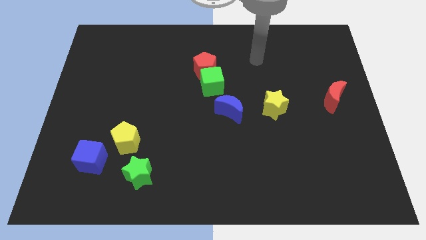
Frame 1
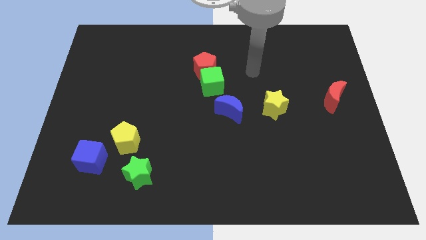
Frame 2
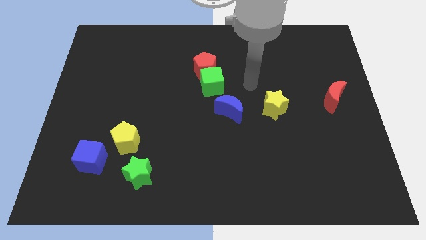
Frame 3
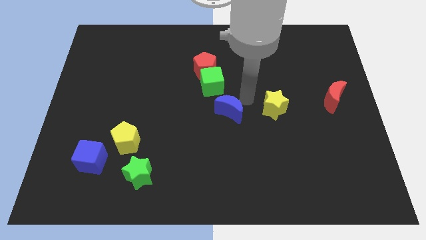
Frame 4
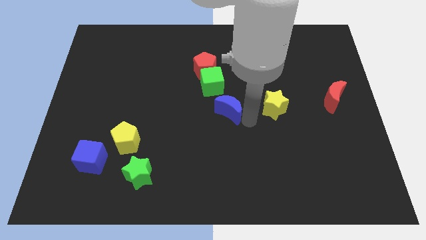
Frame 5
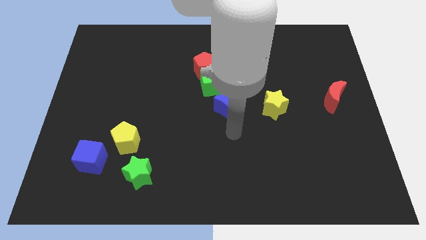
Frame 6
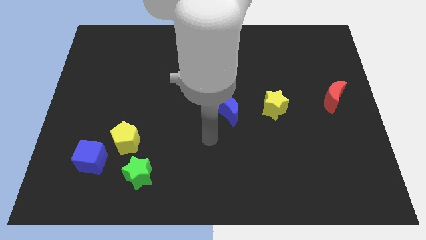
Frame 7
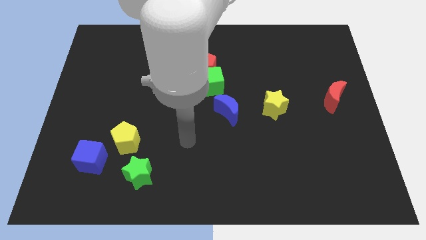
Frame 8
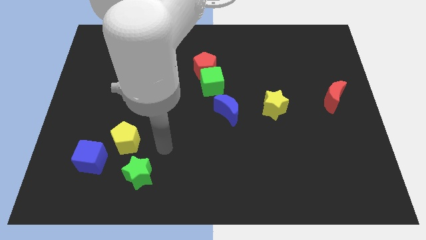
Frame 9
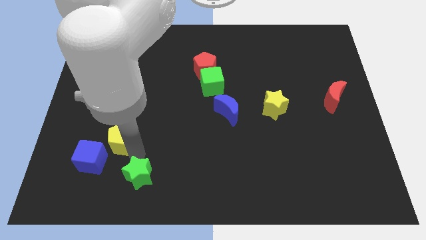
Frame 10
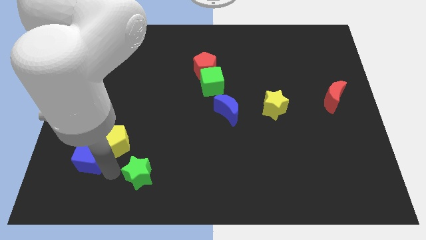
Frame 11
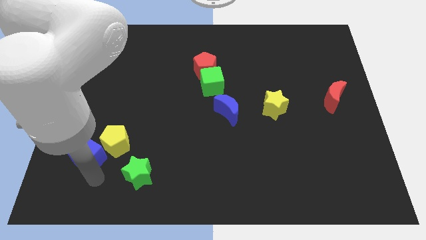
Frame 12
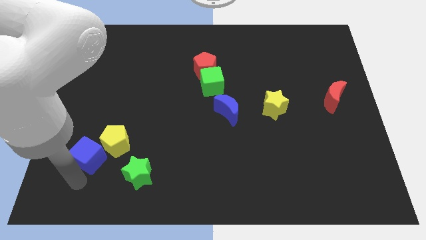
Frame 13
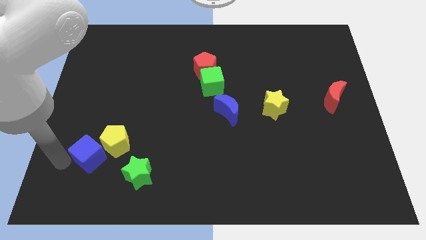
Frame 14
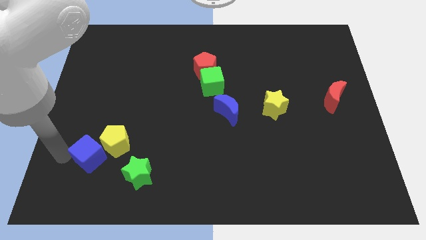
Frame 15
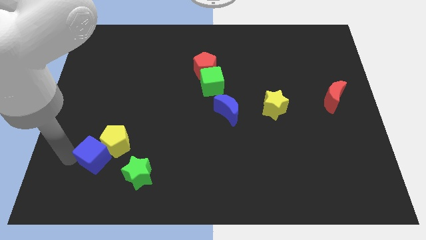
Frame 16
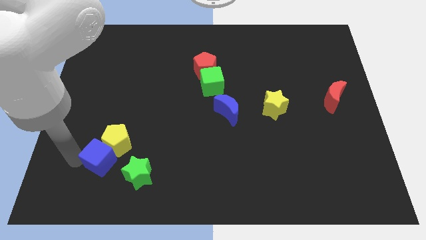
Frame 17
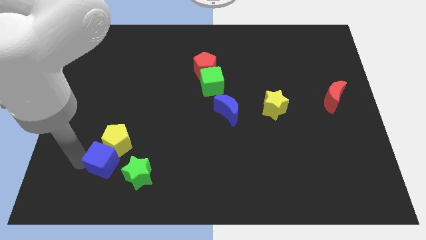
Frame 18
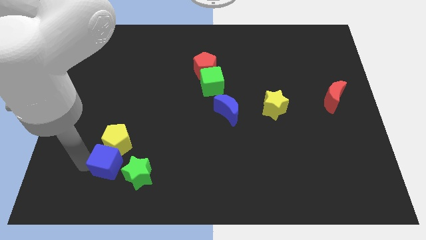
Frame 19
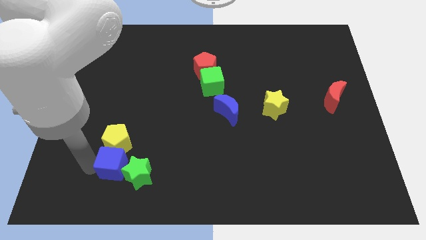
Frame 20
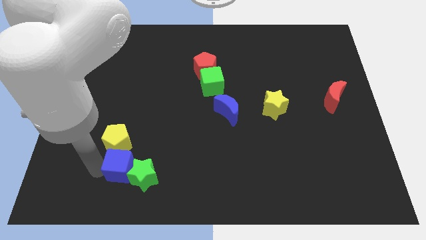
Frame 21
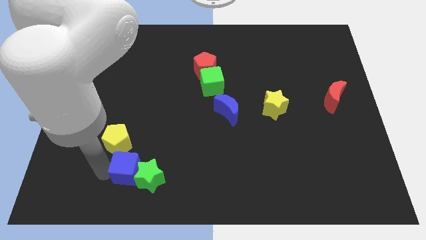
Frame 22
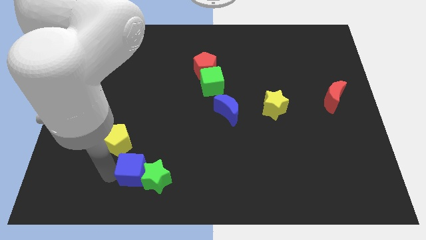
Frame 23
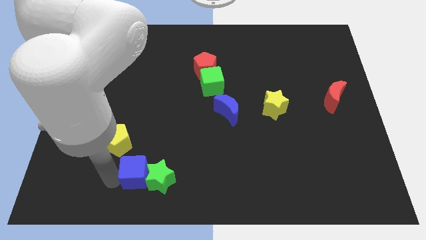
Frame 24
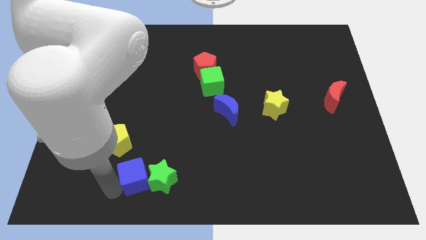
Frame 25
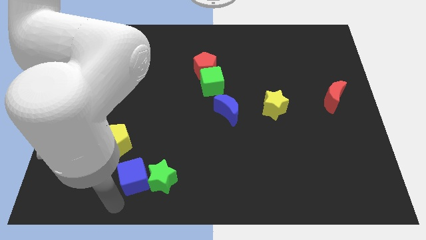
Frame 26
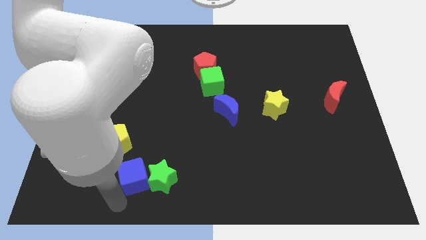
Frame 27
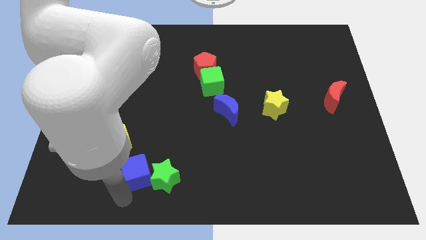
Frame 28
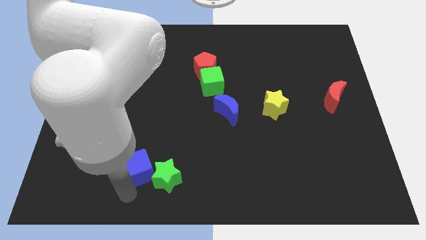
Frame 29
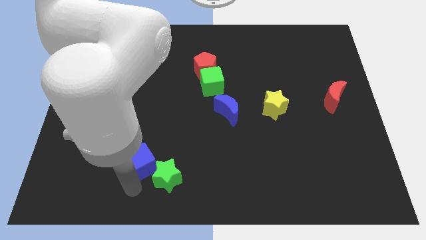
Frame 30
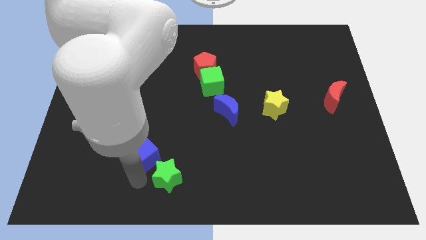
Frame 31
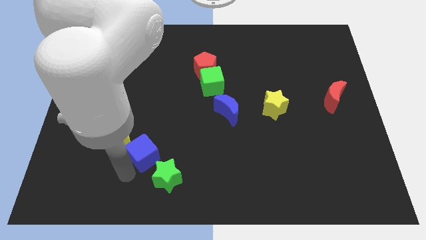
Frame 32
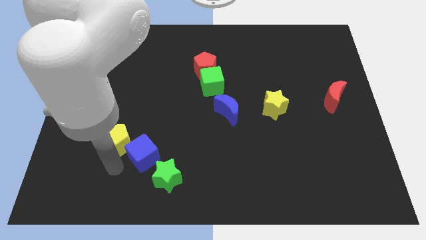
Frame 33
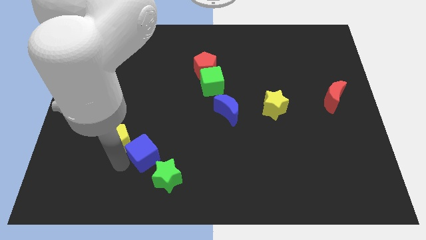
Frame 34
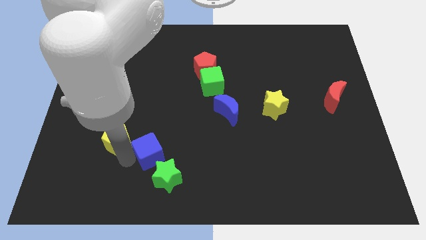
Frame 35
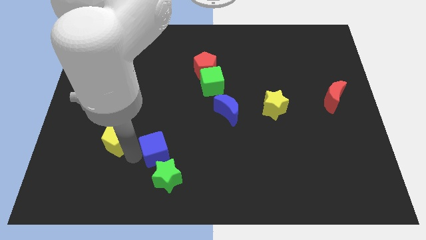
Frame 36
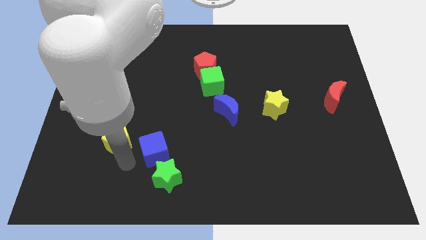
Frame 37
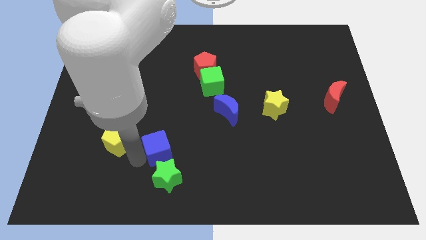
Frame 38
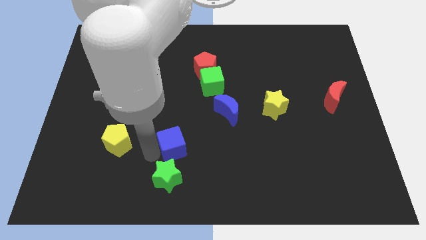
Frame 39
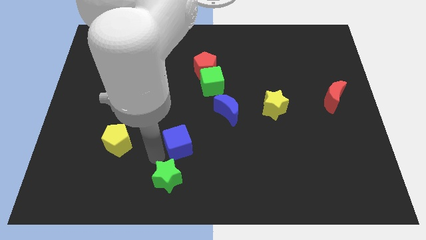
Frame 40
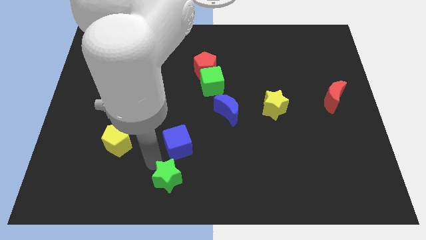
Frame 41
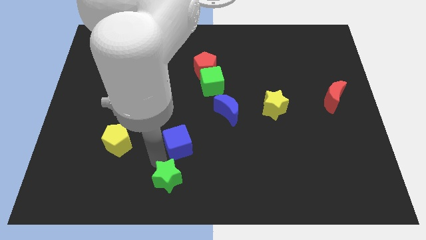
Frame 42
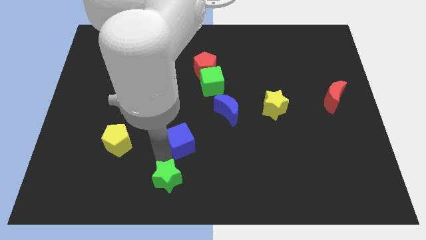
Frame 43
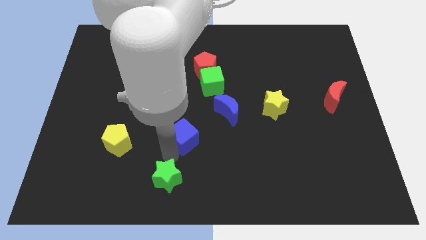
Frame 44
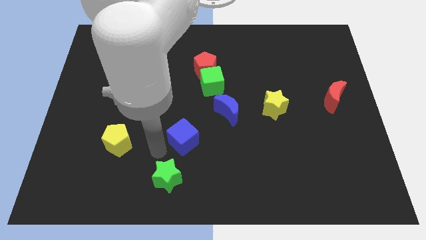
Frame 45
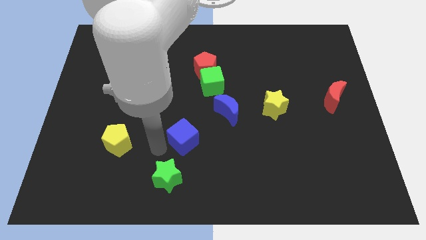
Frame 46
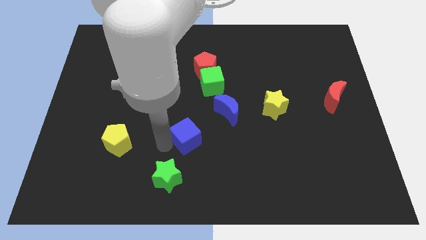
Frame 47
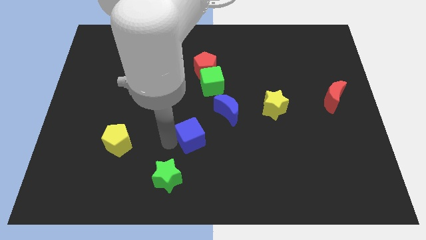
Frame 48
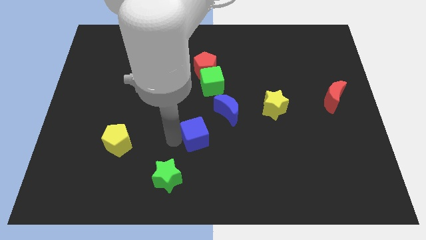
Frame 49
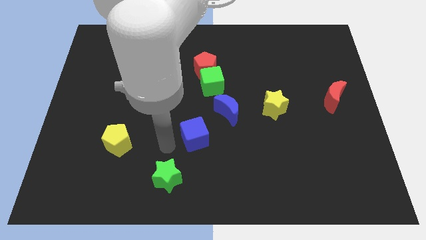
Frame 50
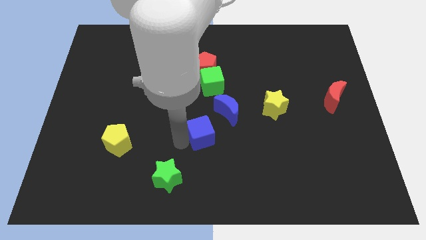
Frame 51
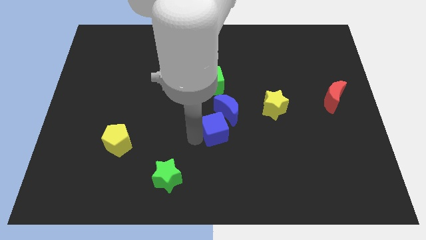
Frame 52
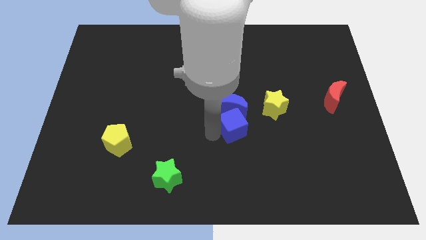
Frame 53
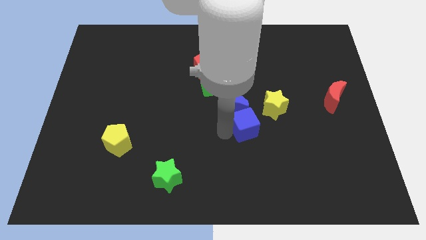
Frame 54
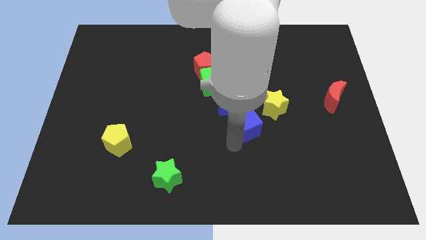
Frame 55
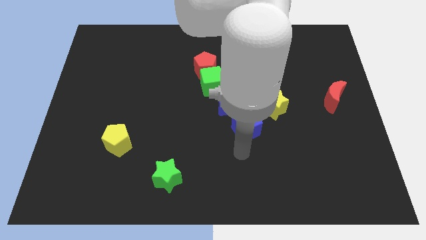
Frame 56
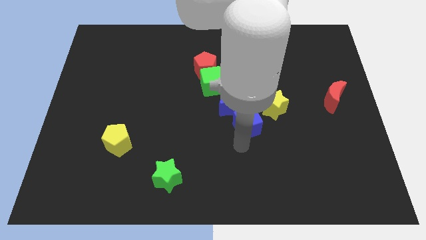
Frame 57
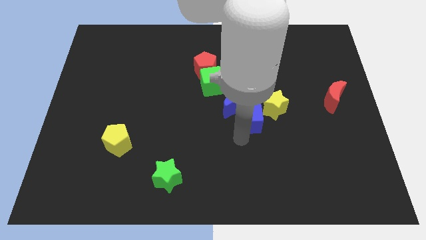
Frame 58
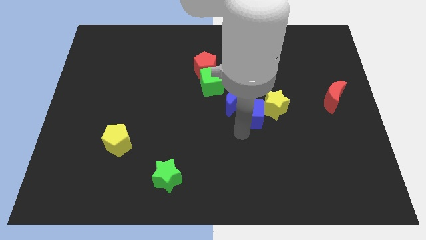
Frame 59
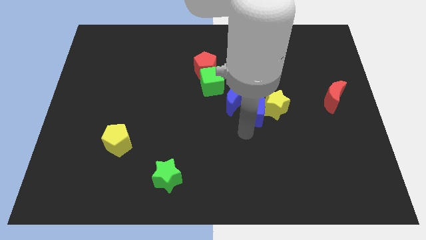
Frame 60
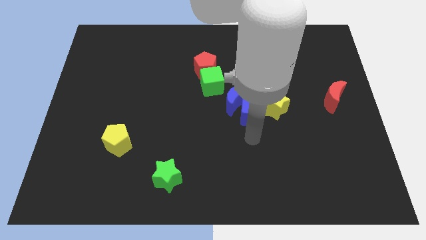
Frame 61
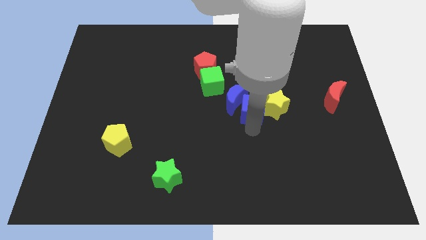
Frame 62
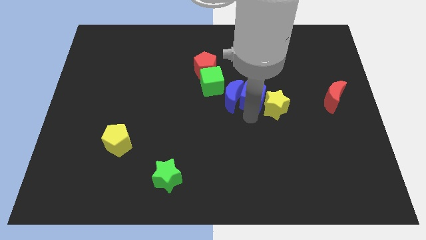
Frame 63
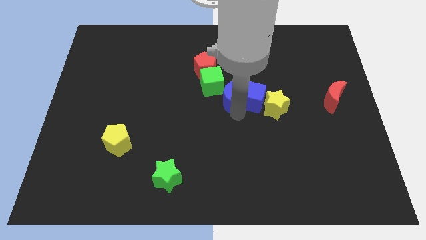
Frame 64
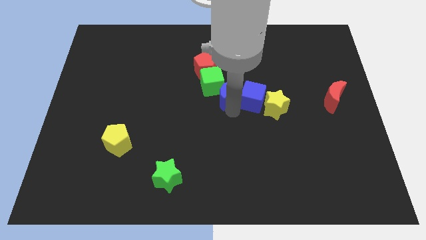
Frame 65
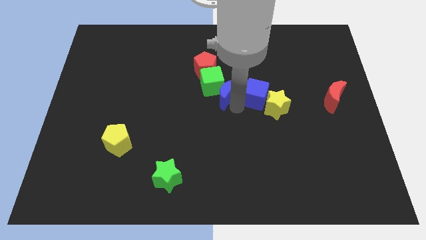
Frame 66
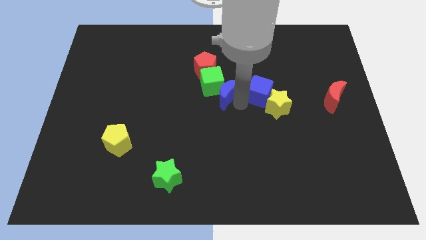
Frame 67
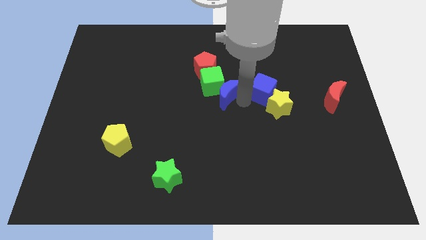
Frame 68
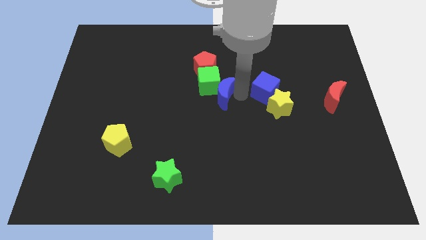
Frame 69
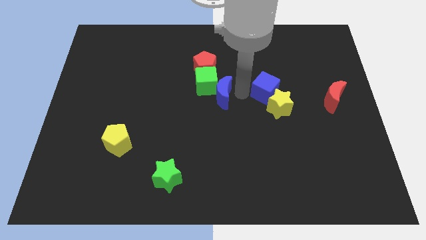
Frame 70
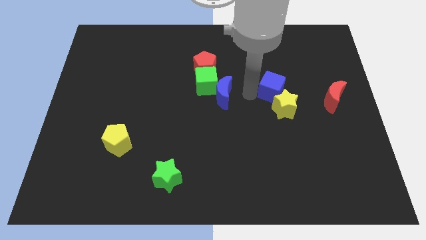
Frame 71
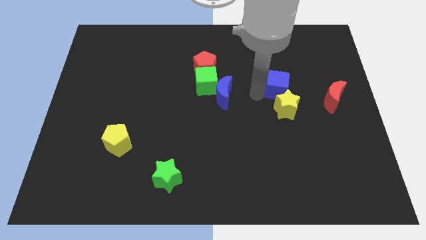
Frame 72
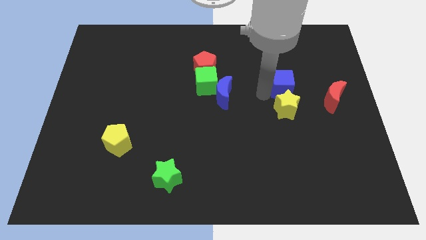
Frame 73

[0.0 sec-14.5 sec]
put the blue cube to the top right side of the yellow star

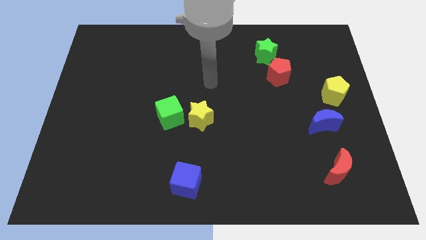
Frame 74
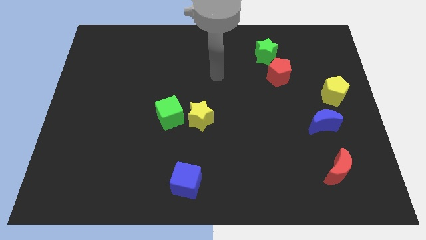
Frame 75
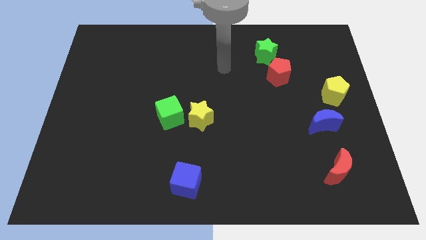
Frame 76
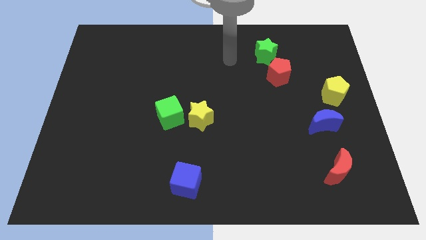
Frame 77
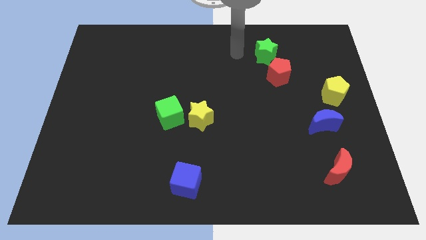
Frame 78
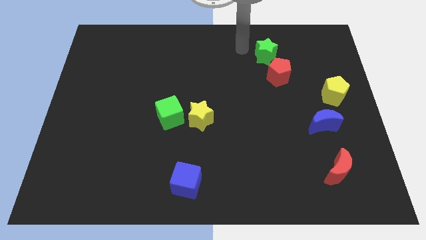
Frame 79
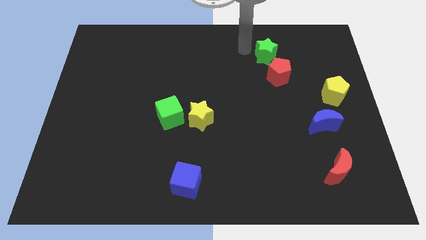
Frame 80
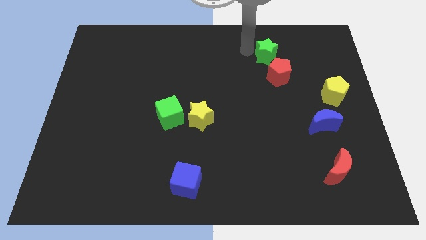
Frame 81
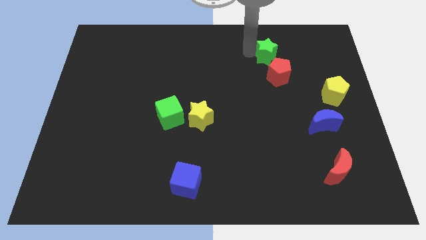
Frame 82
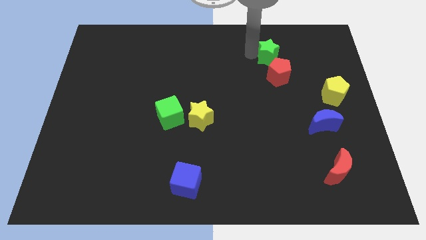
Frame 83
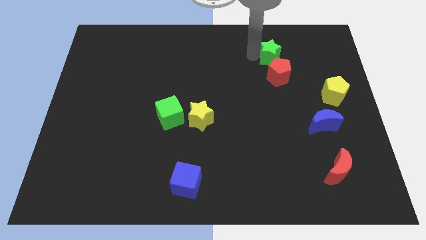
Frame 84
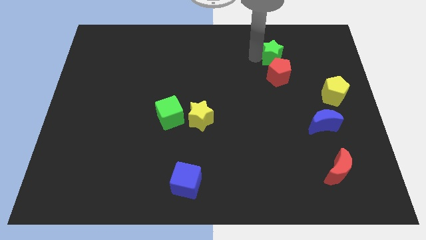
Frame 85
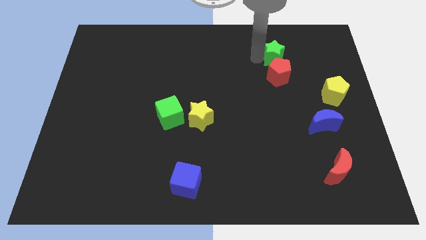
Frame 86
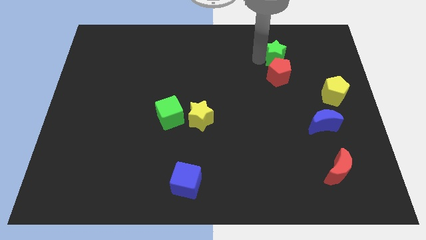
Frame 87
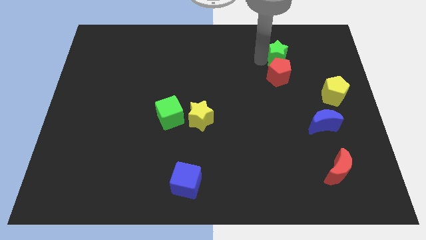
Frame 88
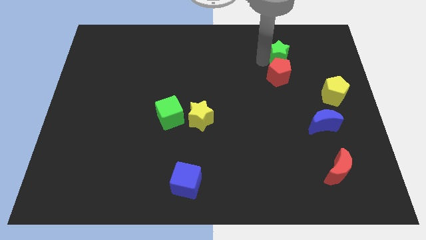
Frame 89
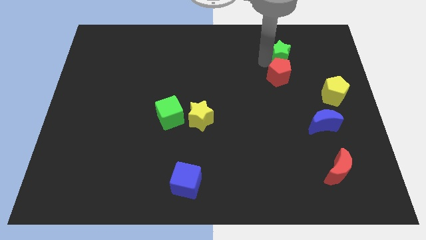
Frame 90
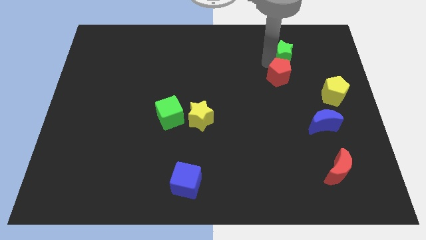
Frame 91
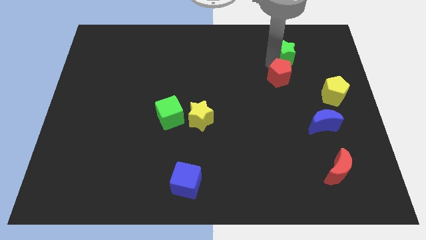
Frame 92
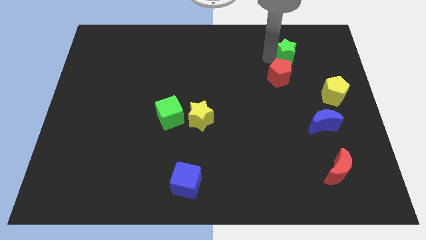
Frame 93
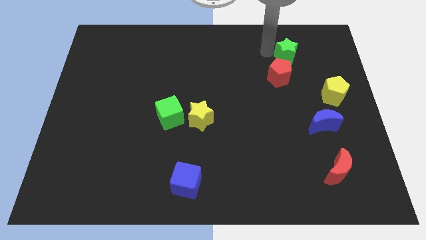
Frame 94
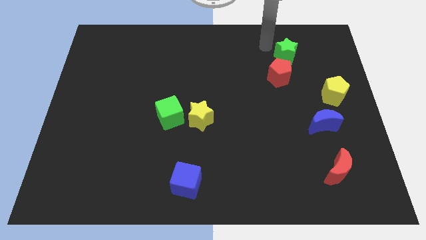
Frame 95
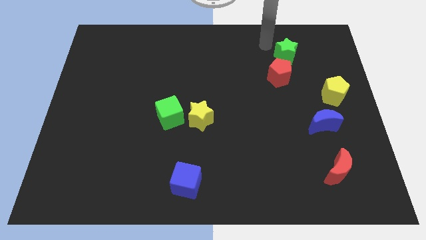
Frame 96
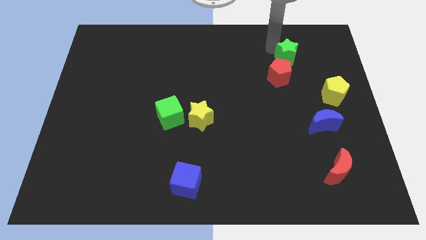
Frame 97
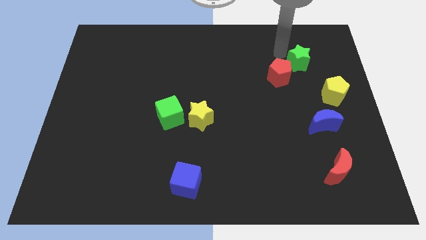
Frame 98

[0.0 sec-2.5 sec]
put the green star just right of the red pentagon
